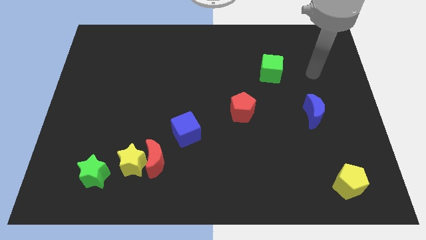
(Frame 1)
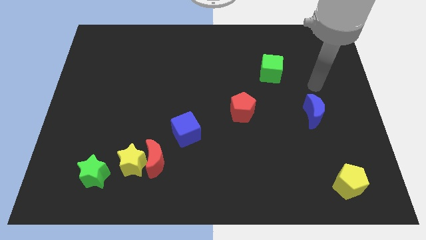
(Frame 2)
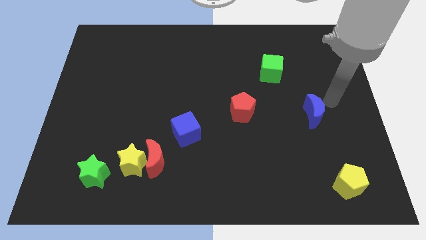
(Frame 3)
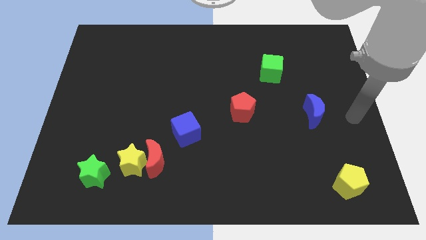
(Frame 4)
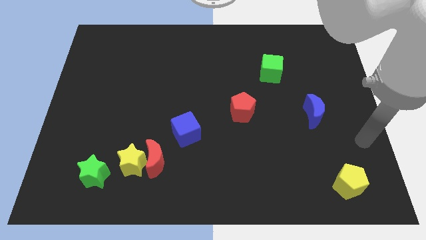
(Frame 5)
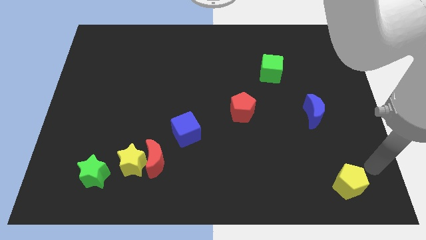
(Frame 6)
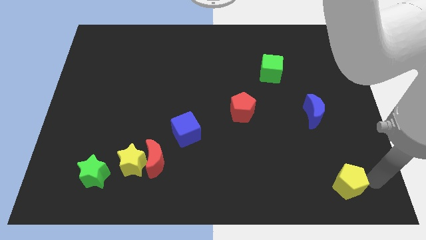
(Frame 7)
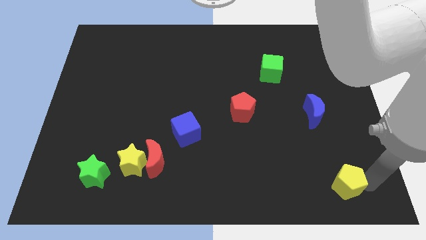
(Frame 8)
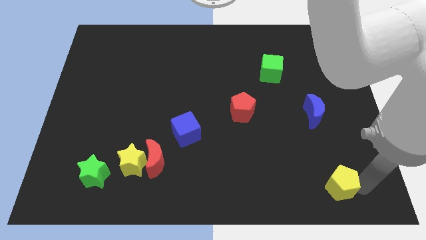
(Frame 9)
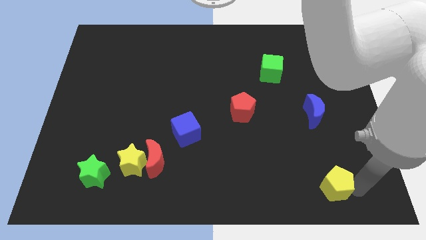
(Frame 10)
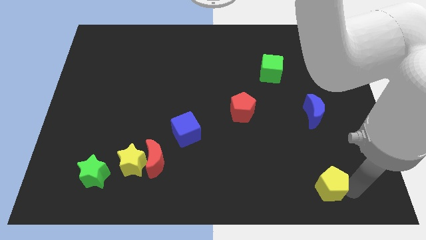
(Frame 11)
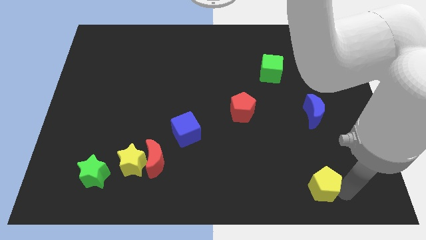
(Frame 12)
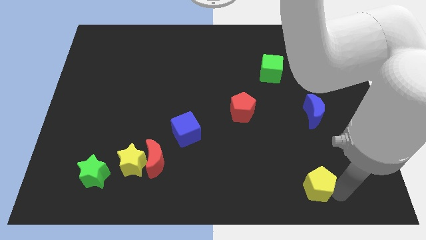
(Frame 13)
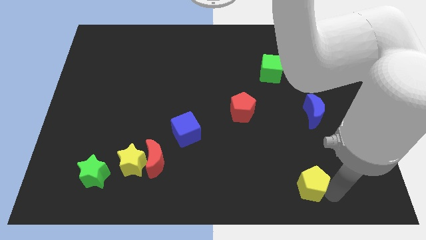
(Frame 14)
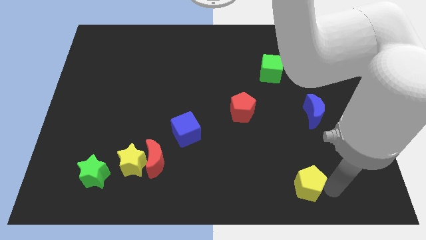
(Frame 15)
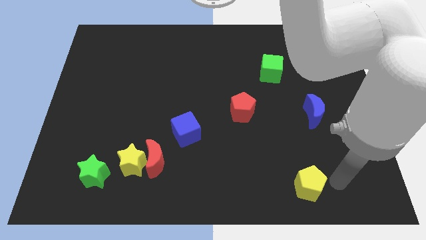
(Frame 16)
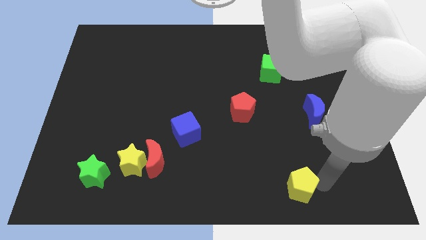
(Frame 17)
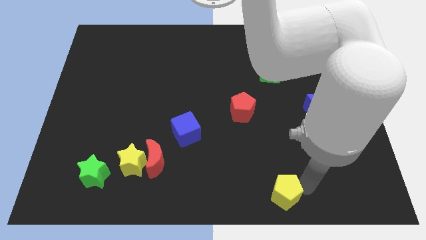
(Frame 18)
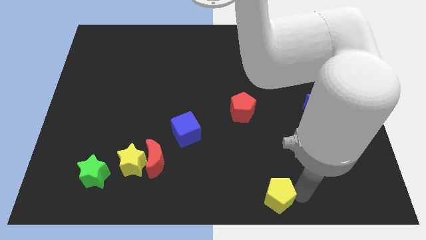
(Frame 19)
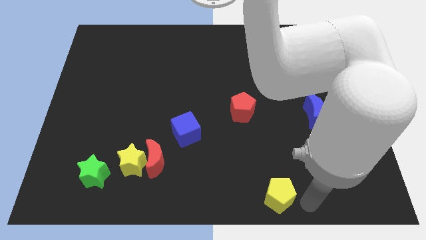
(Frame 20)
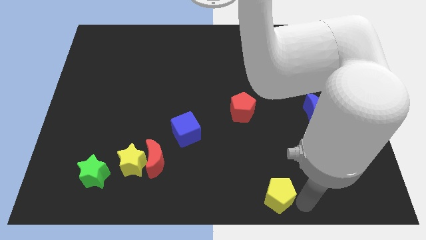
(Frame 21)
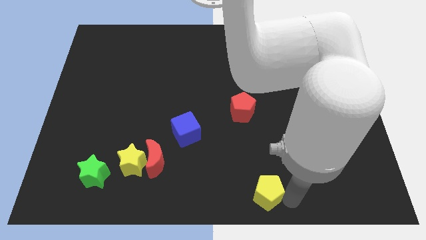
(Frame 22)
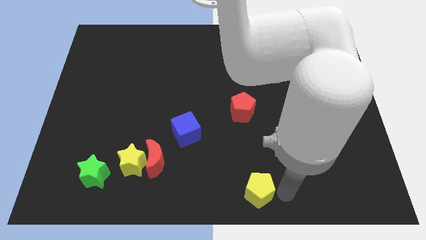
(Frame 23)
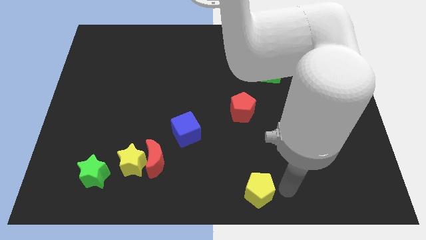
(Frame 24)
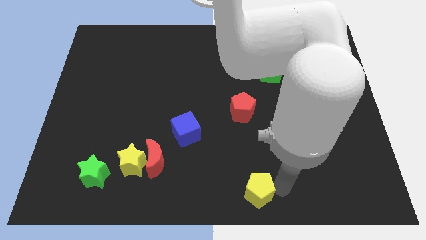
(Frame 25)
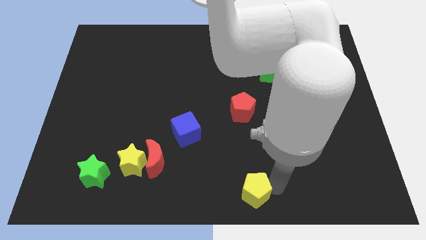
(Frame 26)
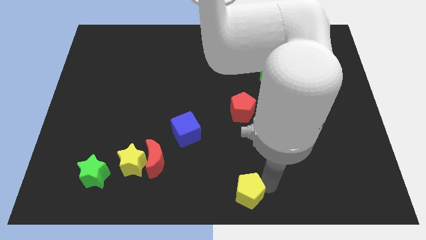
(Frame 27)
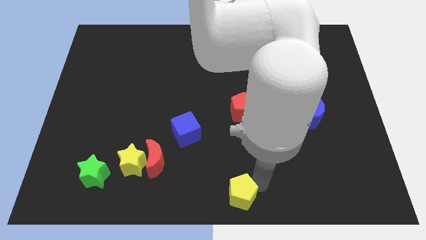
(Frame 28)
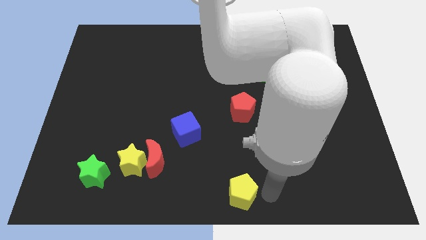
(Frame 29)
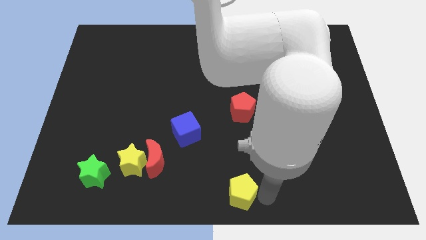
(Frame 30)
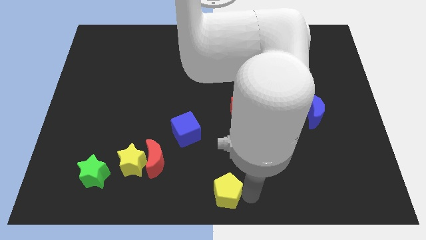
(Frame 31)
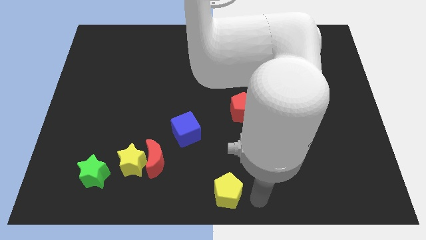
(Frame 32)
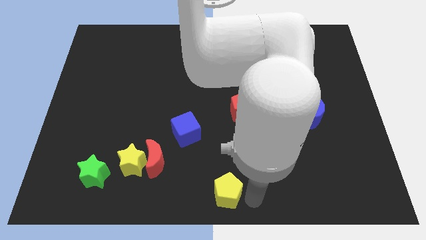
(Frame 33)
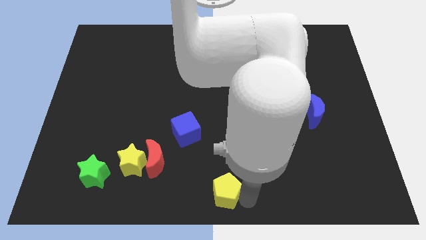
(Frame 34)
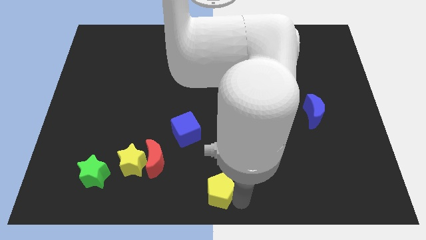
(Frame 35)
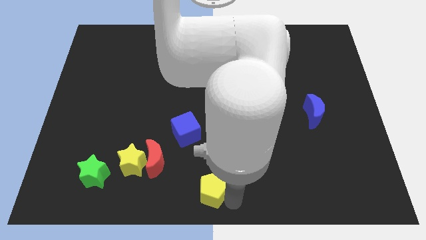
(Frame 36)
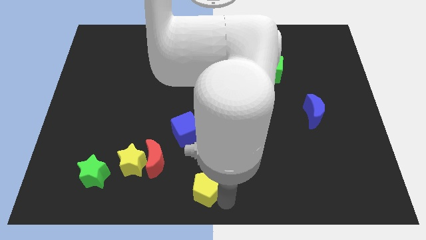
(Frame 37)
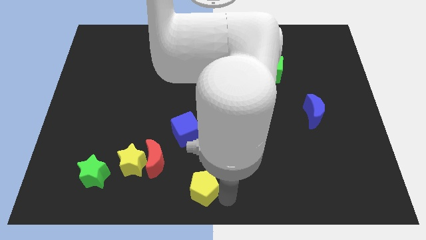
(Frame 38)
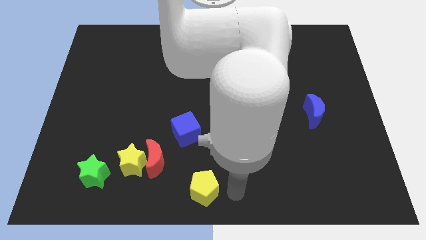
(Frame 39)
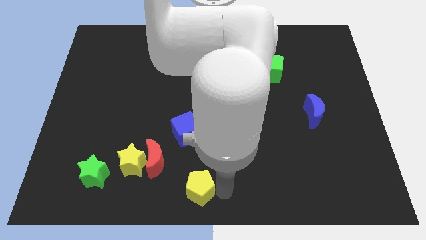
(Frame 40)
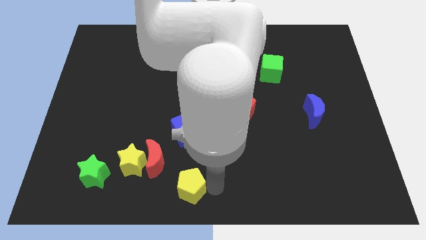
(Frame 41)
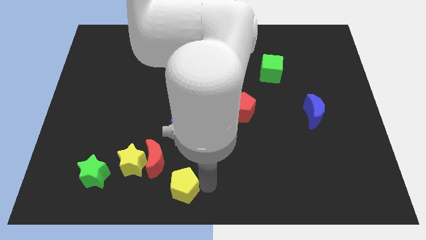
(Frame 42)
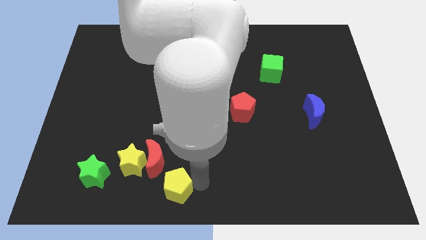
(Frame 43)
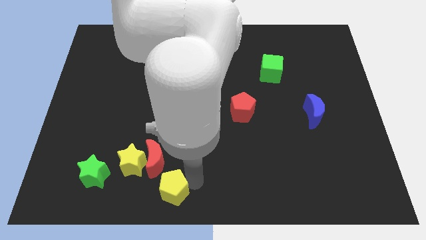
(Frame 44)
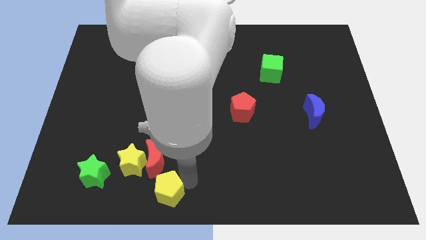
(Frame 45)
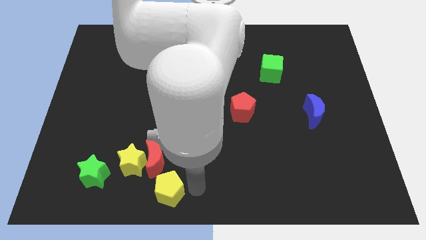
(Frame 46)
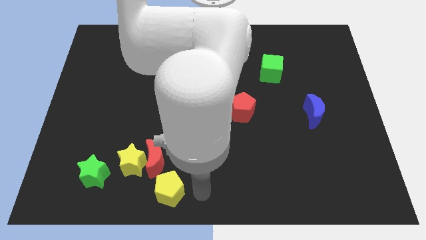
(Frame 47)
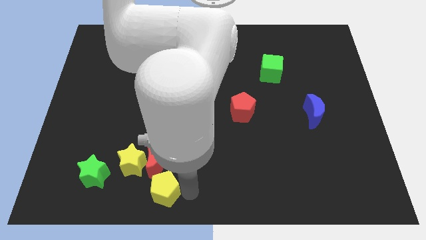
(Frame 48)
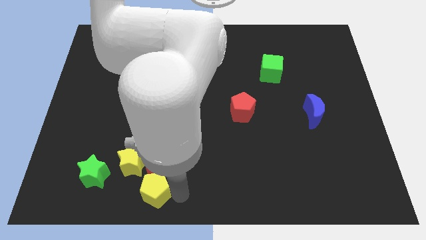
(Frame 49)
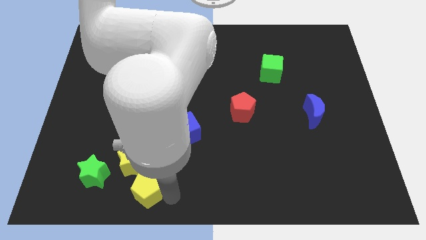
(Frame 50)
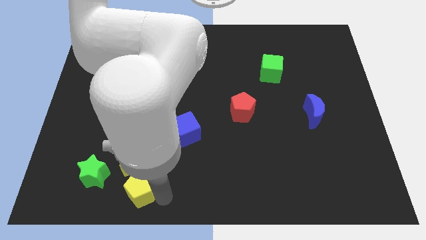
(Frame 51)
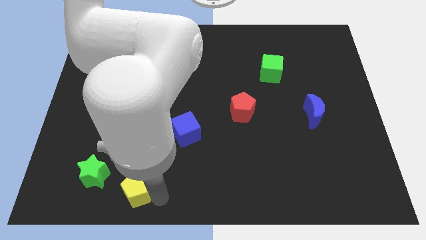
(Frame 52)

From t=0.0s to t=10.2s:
push the yellow pentagon next to the yellow star

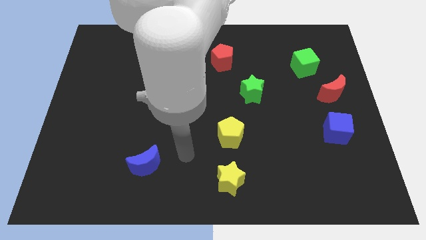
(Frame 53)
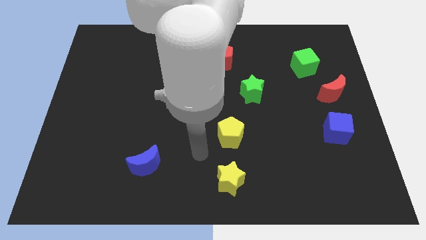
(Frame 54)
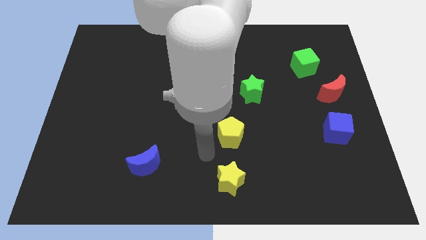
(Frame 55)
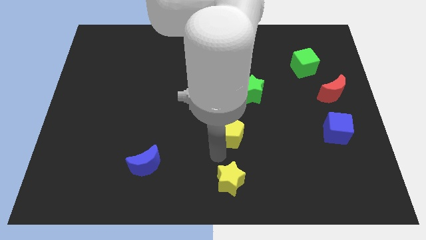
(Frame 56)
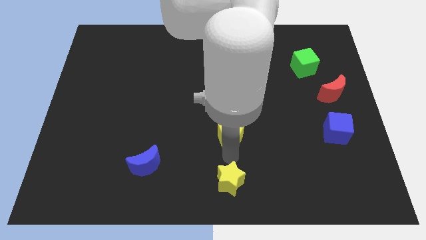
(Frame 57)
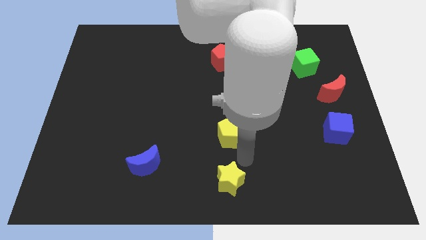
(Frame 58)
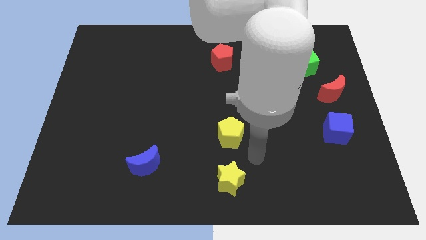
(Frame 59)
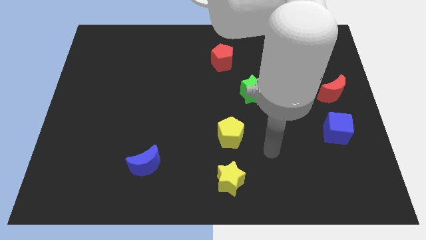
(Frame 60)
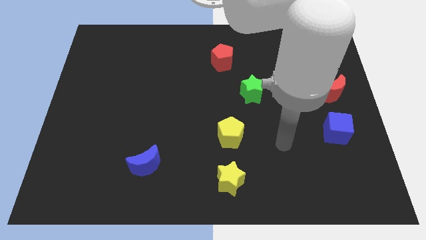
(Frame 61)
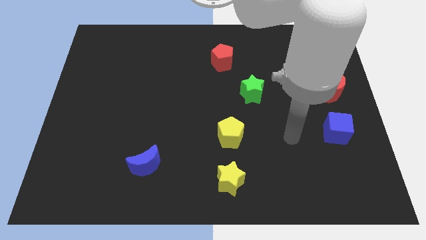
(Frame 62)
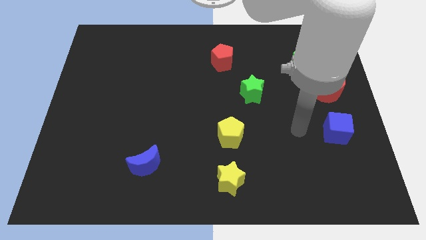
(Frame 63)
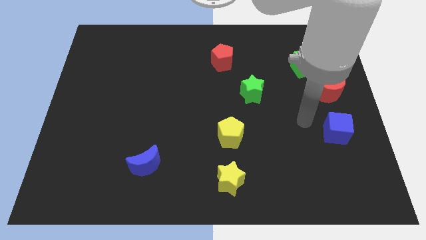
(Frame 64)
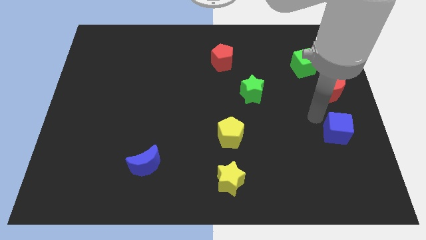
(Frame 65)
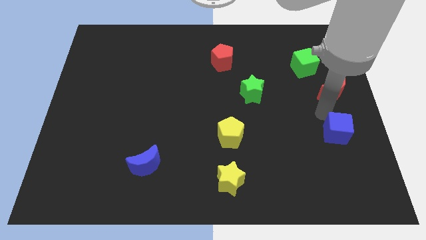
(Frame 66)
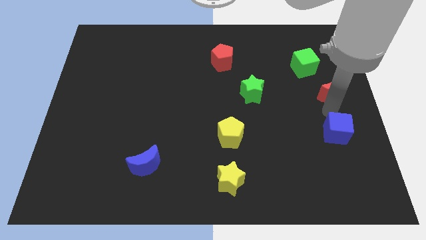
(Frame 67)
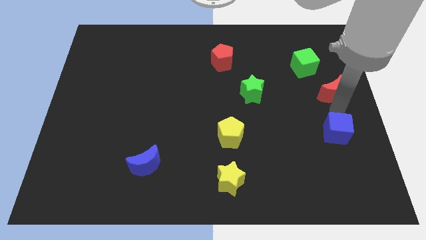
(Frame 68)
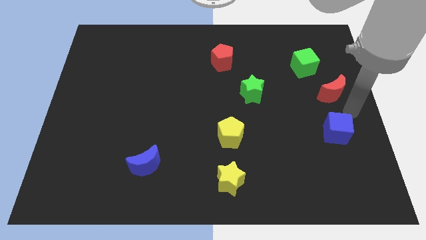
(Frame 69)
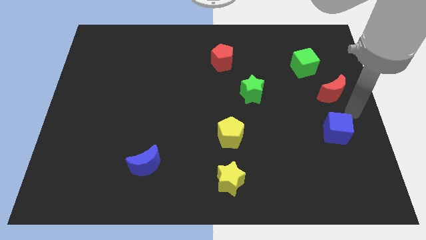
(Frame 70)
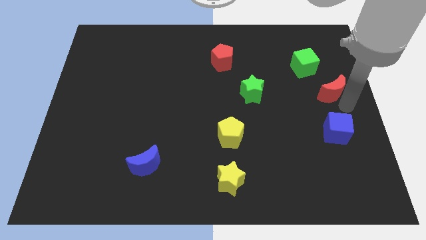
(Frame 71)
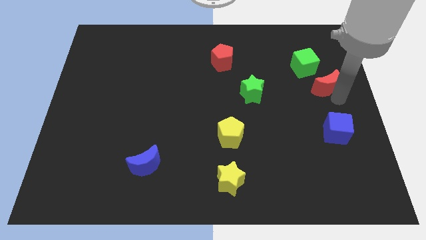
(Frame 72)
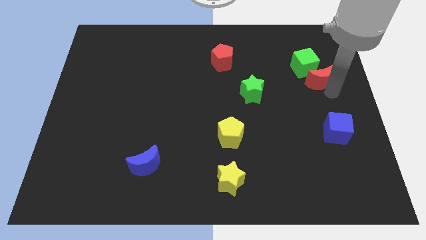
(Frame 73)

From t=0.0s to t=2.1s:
slide the red moon towards the green cube
